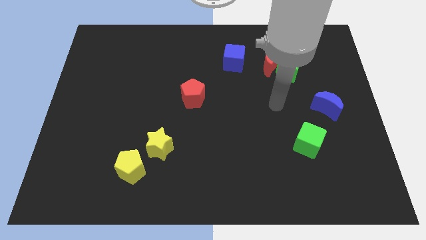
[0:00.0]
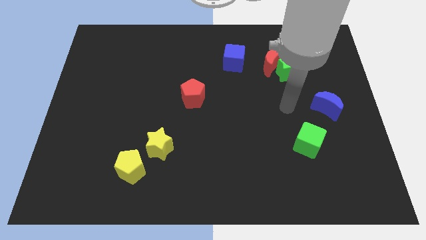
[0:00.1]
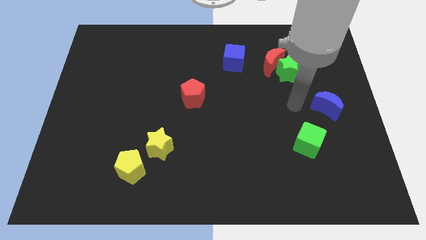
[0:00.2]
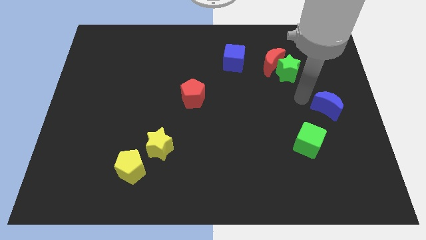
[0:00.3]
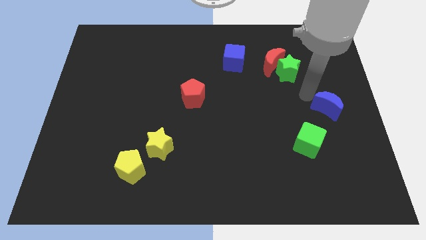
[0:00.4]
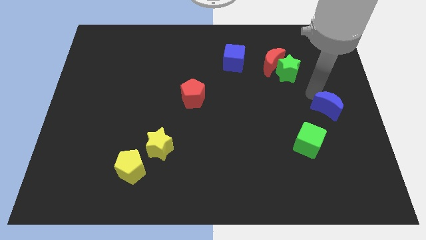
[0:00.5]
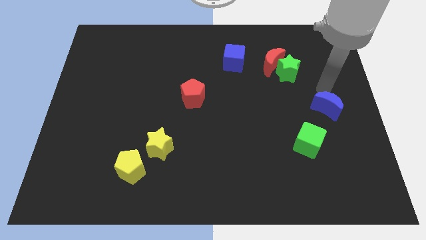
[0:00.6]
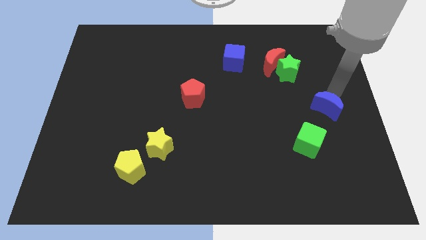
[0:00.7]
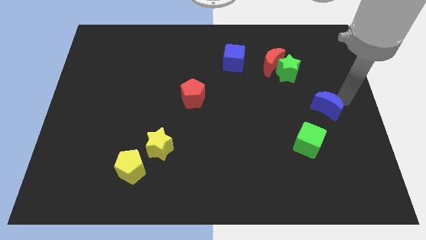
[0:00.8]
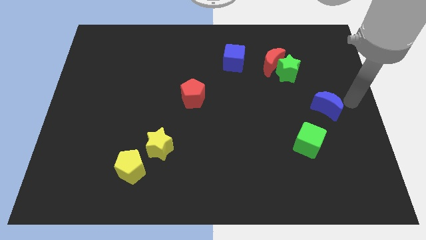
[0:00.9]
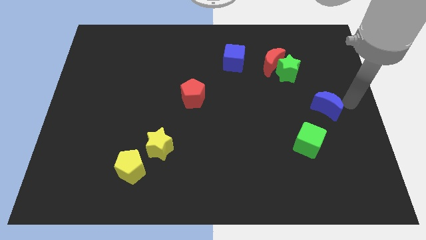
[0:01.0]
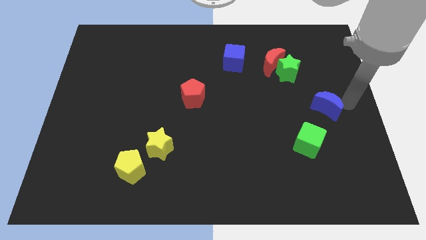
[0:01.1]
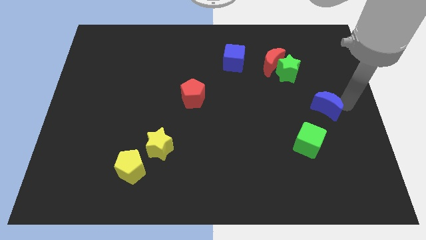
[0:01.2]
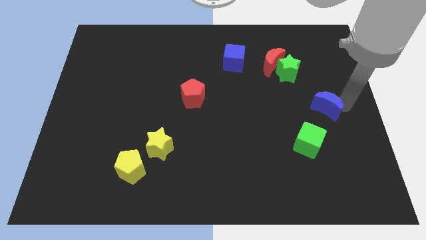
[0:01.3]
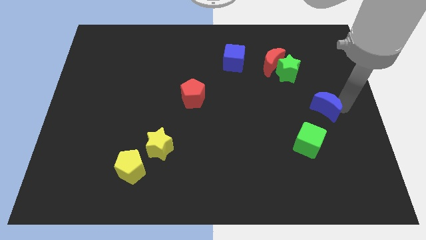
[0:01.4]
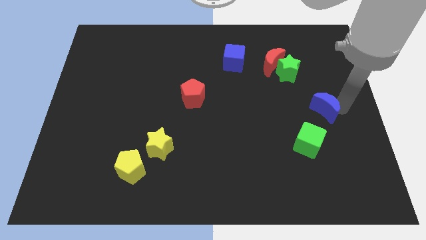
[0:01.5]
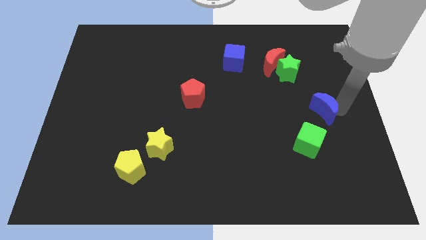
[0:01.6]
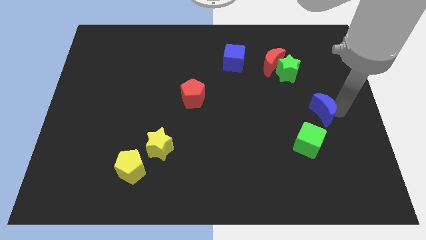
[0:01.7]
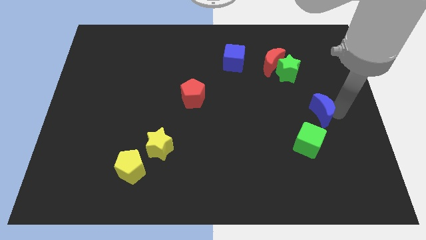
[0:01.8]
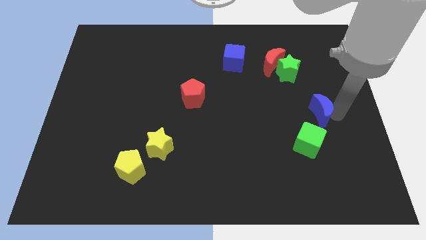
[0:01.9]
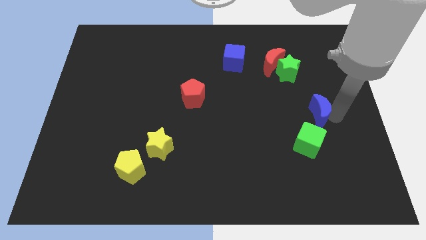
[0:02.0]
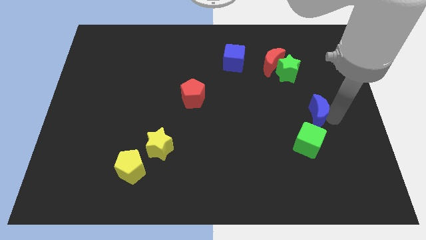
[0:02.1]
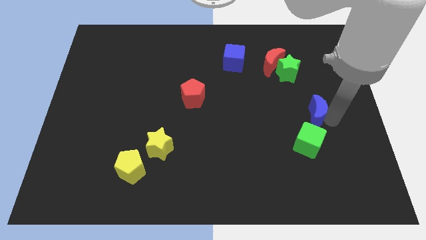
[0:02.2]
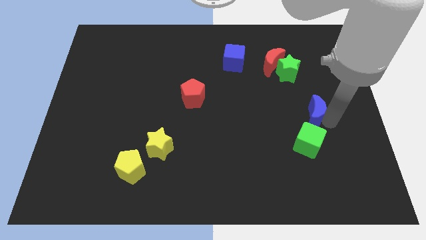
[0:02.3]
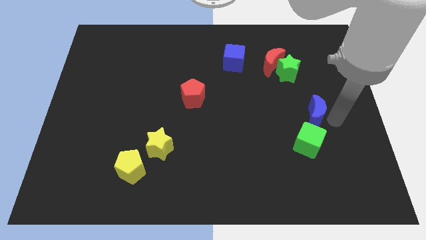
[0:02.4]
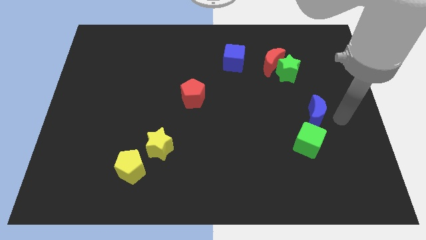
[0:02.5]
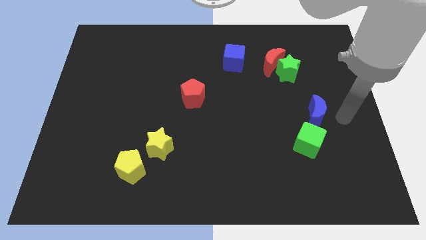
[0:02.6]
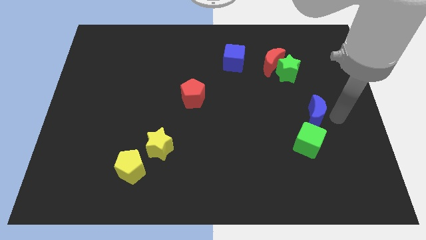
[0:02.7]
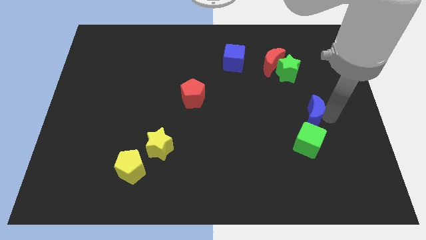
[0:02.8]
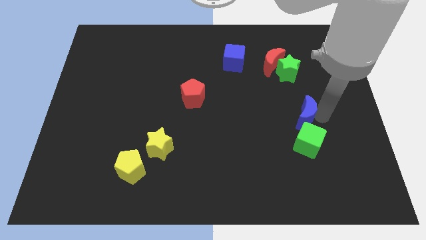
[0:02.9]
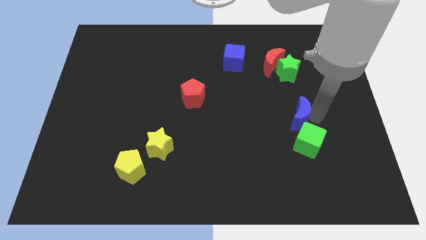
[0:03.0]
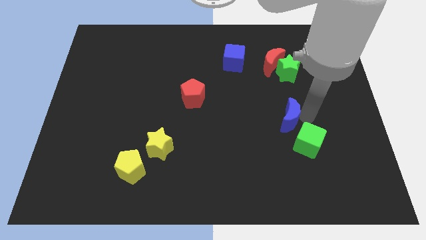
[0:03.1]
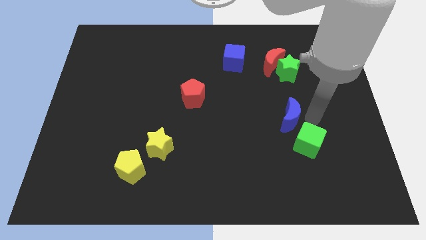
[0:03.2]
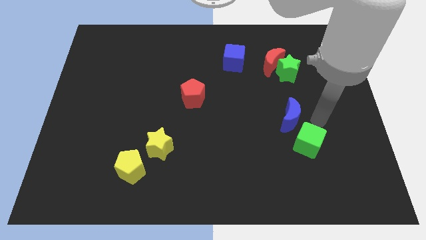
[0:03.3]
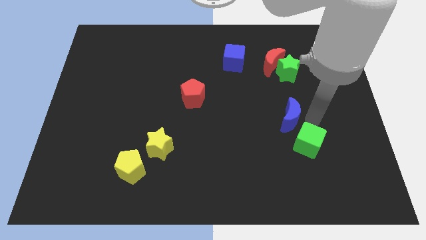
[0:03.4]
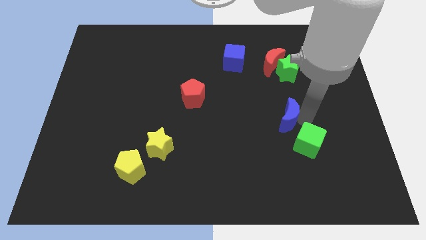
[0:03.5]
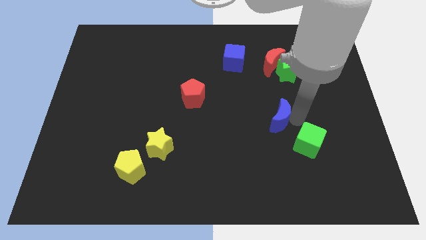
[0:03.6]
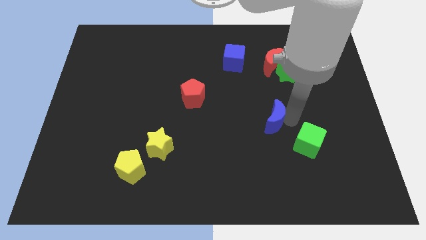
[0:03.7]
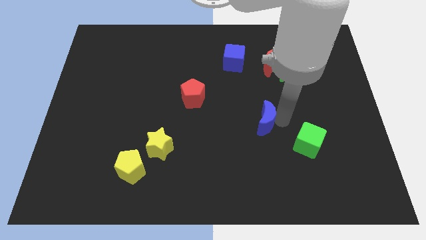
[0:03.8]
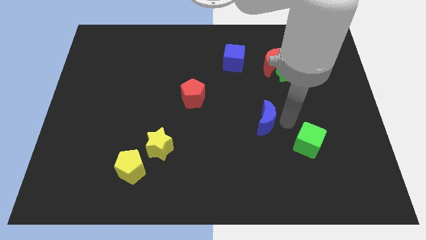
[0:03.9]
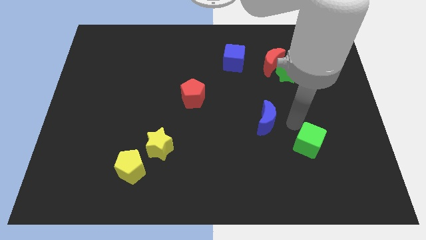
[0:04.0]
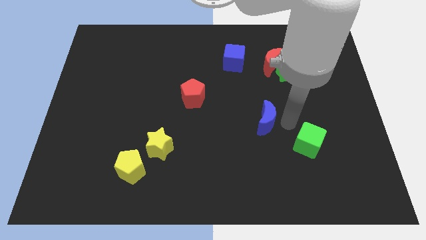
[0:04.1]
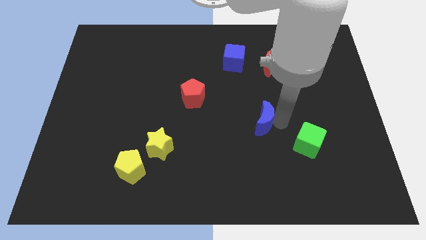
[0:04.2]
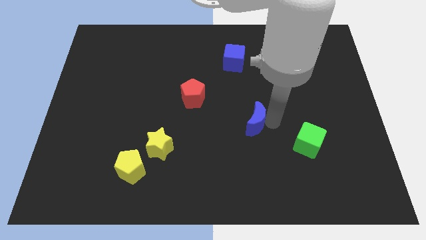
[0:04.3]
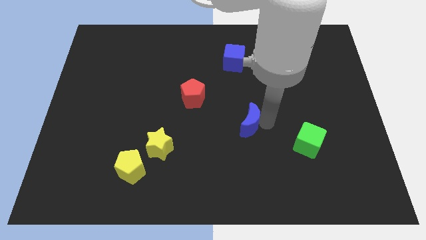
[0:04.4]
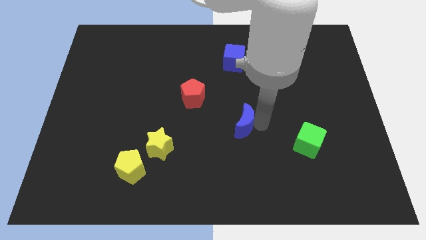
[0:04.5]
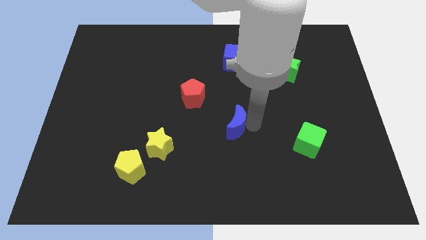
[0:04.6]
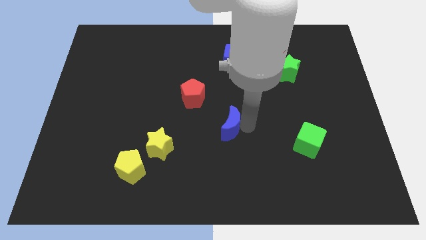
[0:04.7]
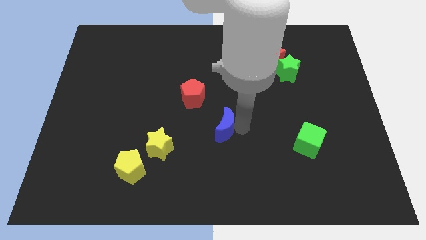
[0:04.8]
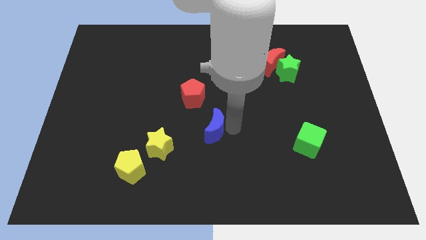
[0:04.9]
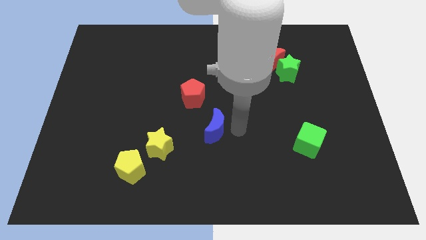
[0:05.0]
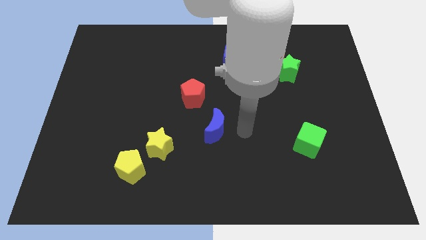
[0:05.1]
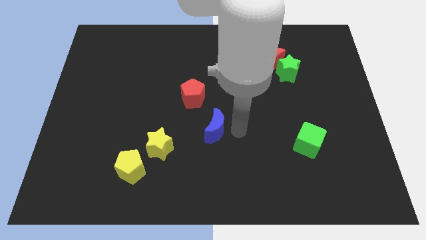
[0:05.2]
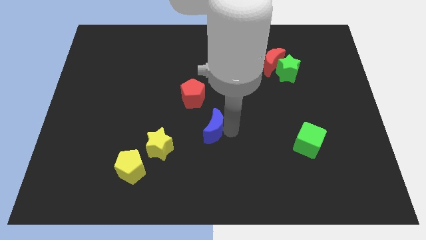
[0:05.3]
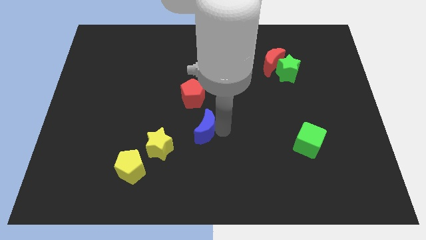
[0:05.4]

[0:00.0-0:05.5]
put the blue moon to the top right side of the yellow star

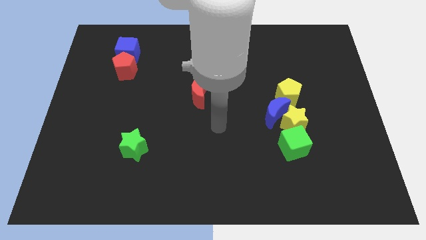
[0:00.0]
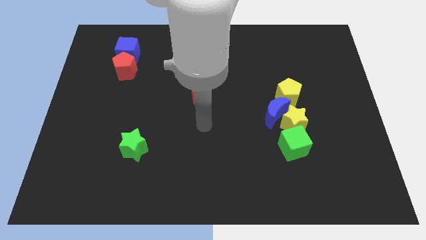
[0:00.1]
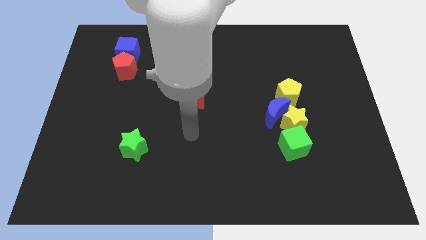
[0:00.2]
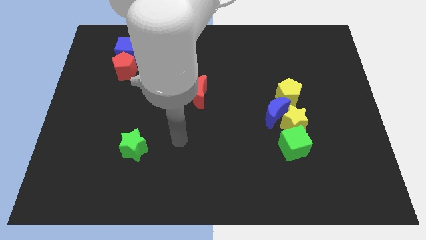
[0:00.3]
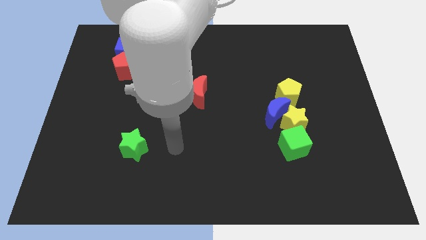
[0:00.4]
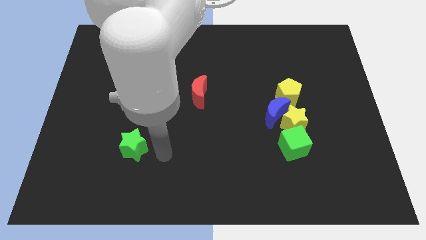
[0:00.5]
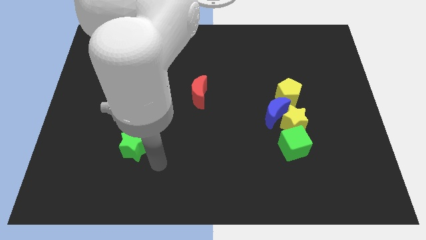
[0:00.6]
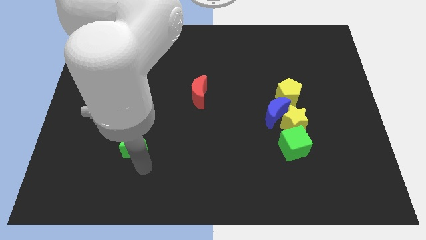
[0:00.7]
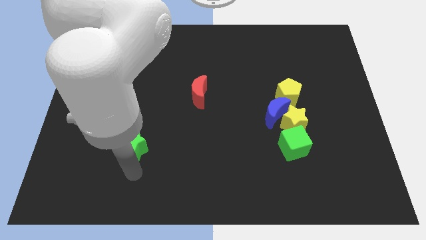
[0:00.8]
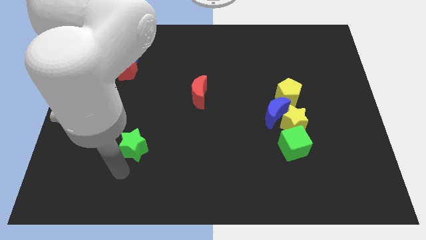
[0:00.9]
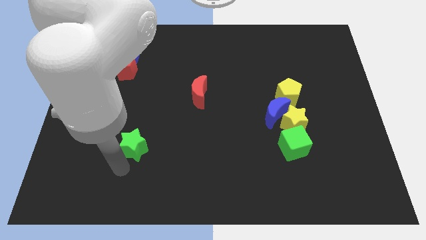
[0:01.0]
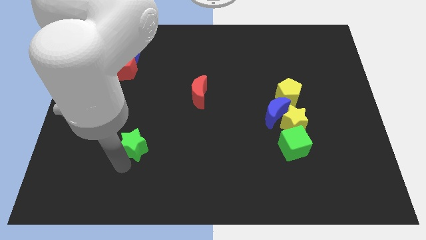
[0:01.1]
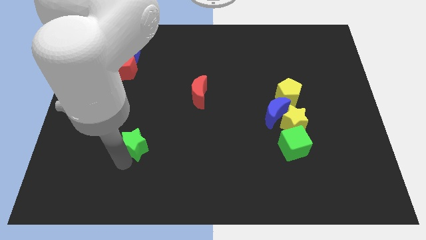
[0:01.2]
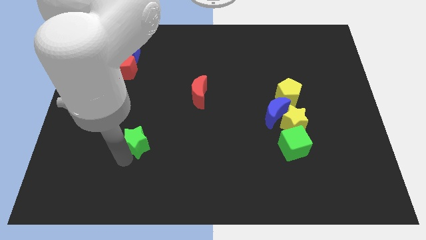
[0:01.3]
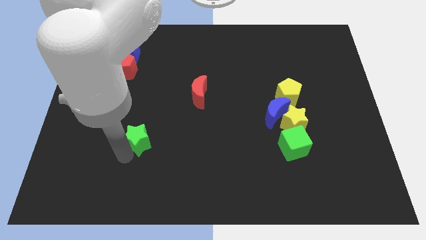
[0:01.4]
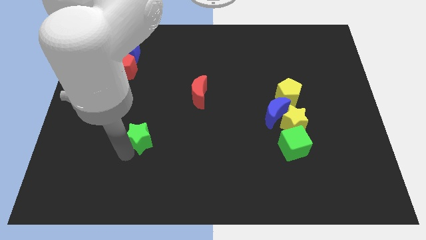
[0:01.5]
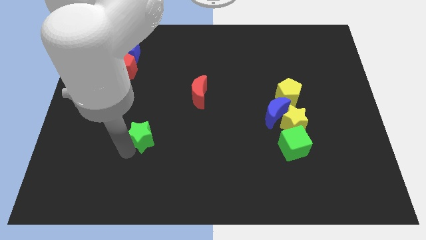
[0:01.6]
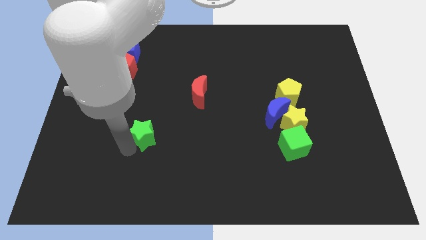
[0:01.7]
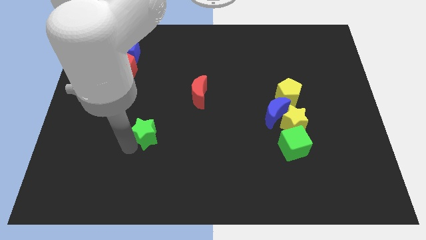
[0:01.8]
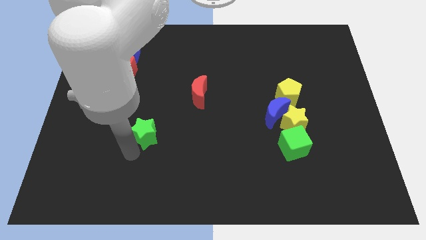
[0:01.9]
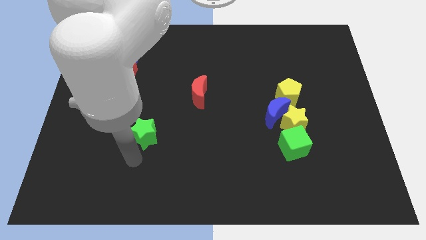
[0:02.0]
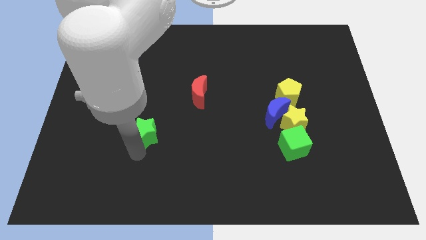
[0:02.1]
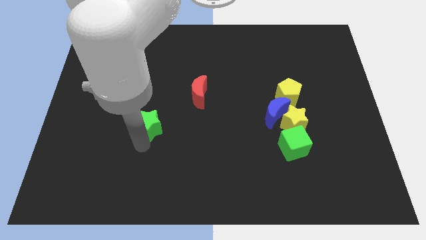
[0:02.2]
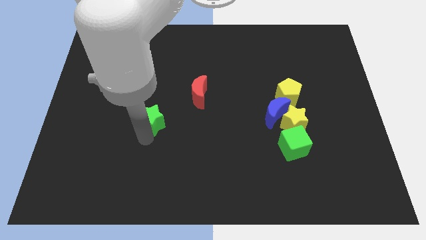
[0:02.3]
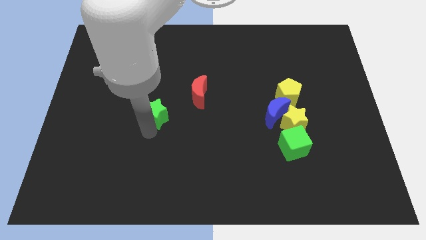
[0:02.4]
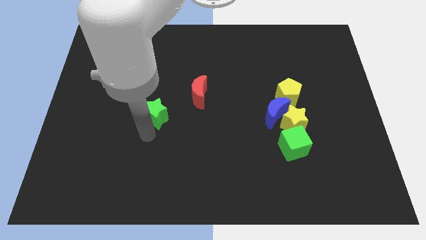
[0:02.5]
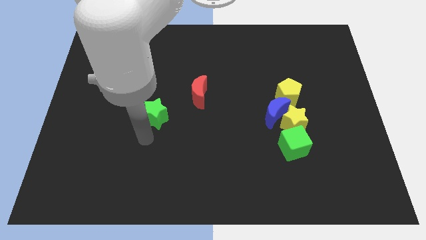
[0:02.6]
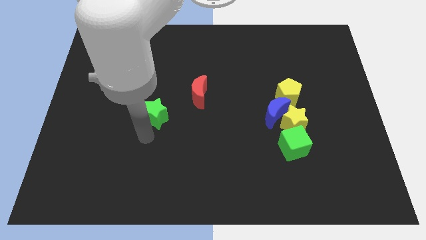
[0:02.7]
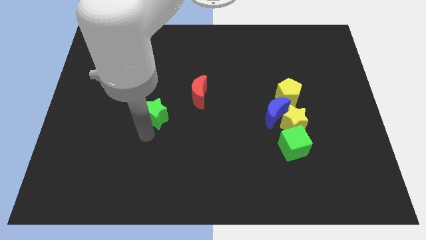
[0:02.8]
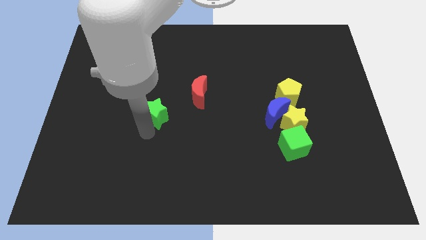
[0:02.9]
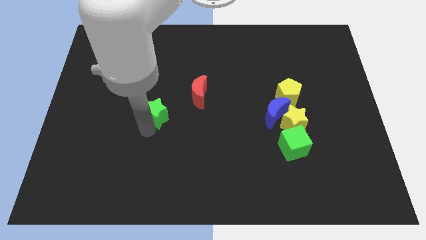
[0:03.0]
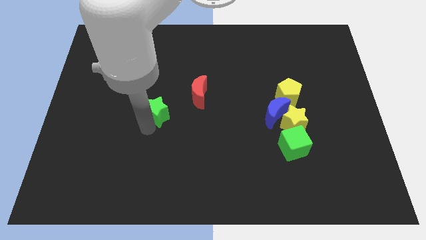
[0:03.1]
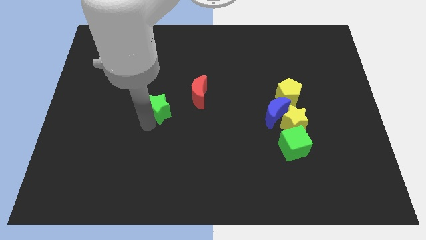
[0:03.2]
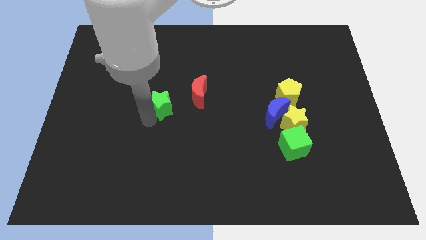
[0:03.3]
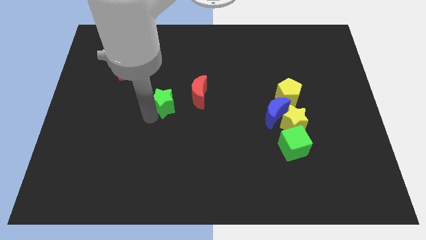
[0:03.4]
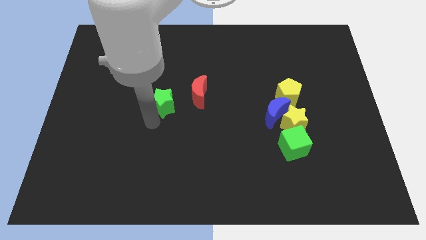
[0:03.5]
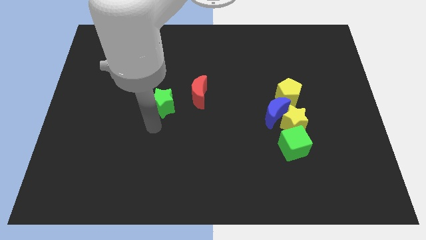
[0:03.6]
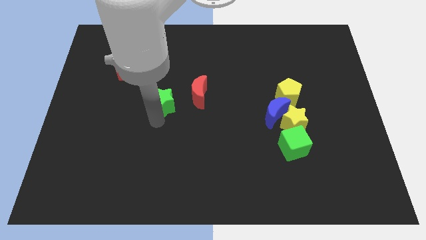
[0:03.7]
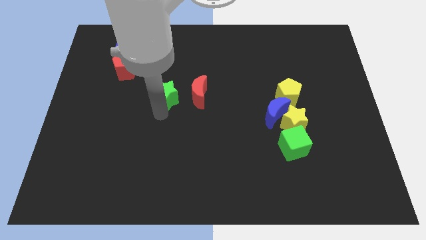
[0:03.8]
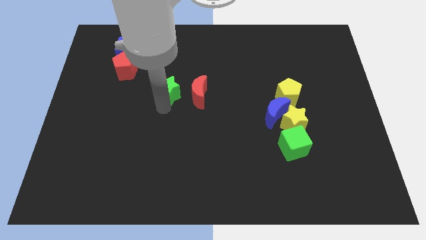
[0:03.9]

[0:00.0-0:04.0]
put the green star to the top left side of the red moon
